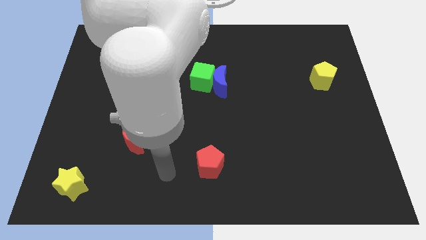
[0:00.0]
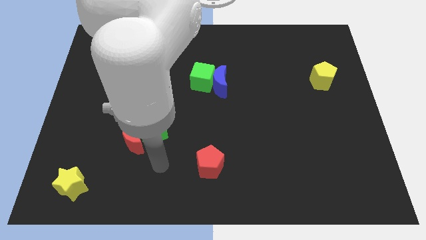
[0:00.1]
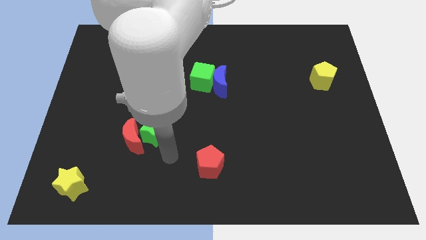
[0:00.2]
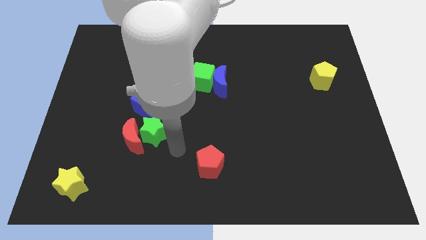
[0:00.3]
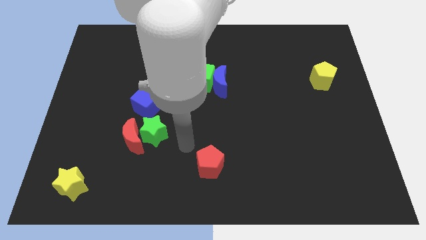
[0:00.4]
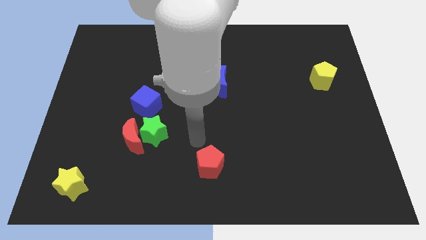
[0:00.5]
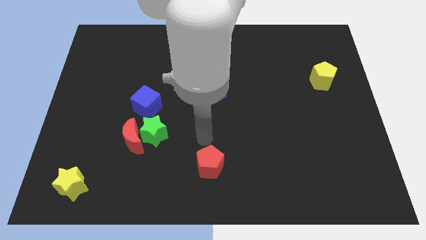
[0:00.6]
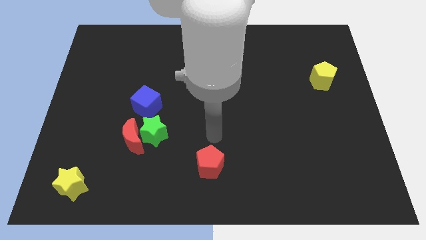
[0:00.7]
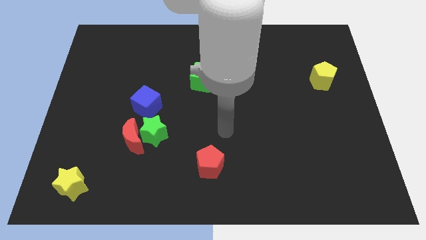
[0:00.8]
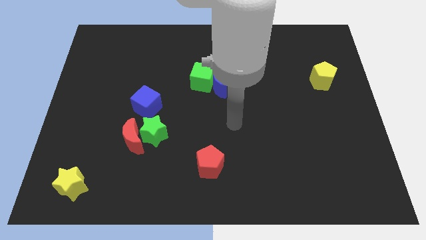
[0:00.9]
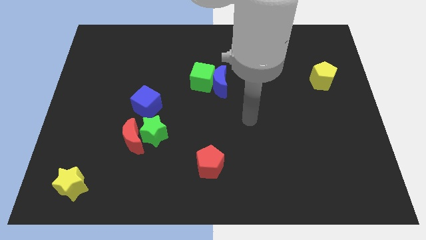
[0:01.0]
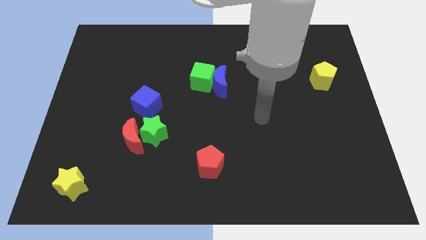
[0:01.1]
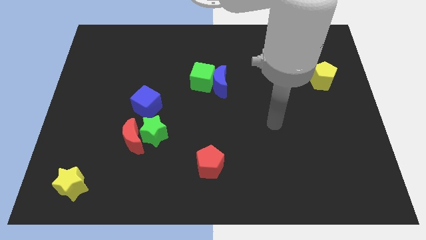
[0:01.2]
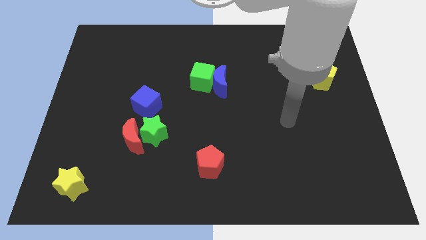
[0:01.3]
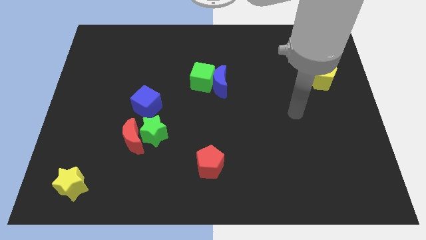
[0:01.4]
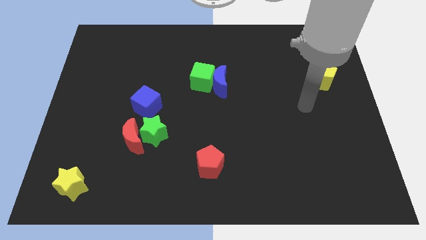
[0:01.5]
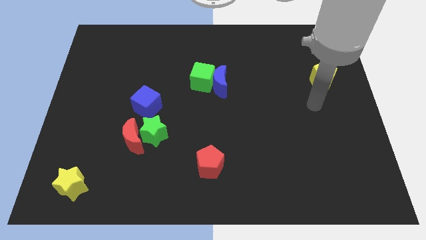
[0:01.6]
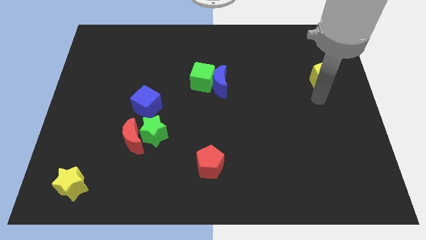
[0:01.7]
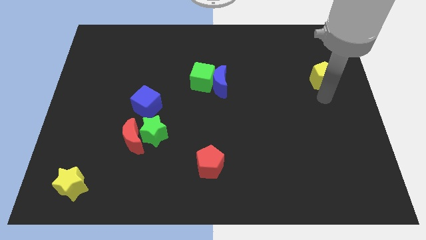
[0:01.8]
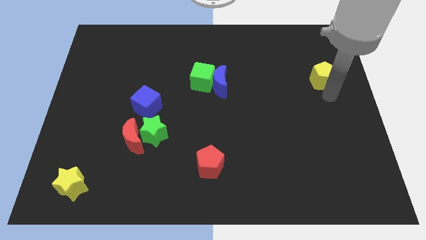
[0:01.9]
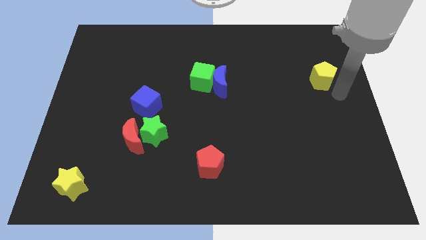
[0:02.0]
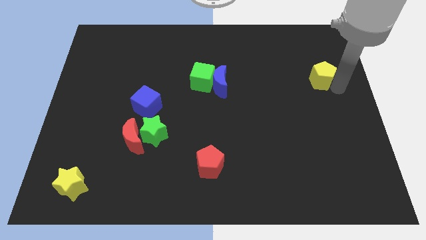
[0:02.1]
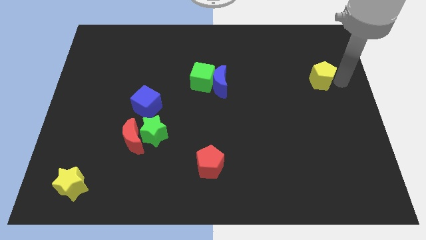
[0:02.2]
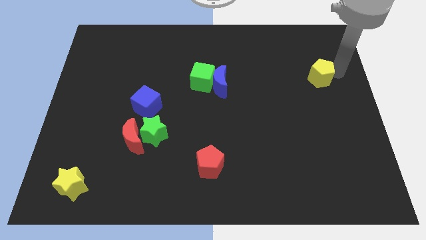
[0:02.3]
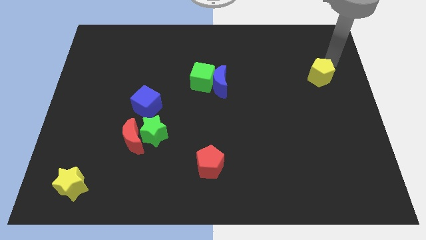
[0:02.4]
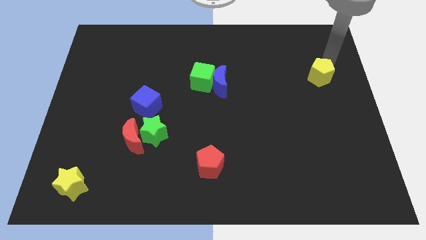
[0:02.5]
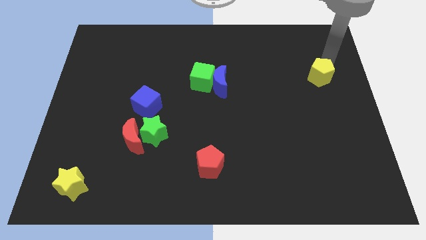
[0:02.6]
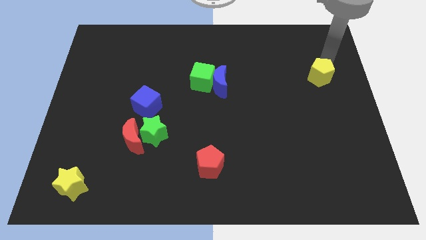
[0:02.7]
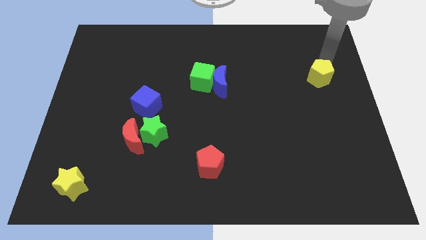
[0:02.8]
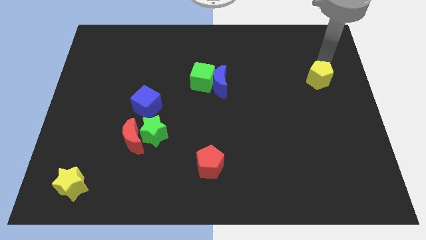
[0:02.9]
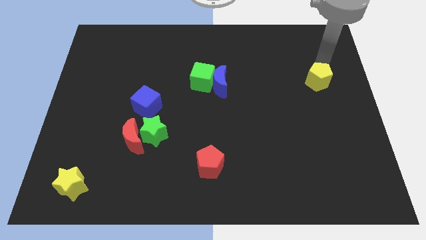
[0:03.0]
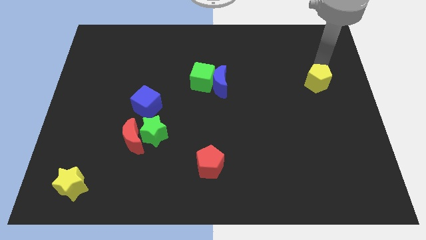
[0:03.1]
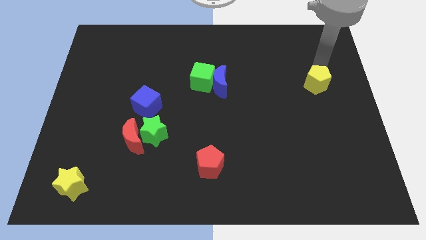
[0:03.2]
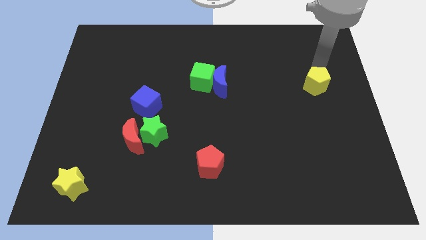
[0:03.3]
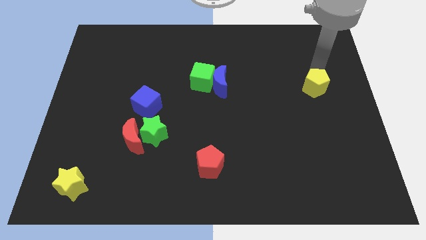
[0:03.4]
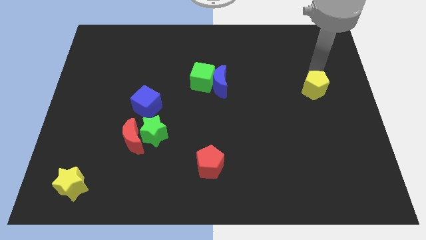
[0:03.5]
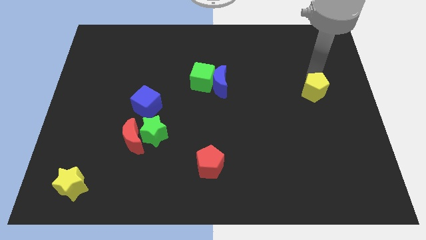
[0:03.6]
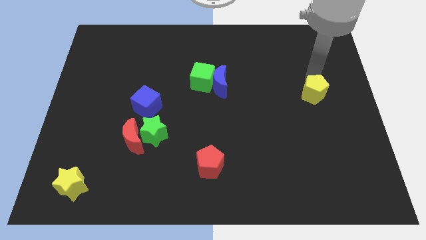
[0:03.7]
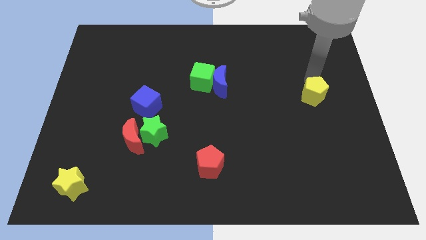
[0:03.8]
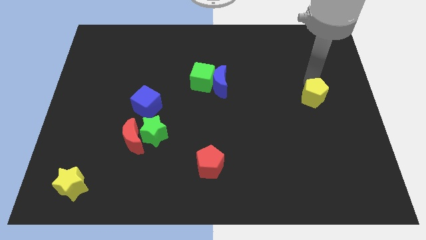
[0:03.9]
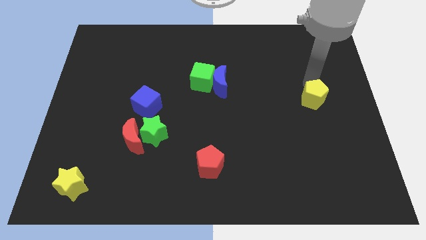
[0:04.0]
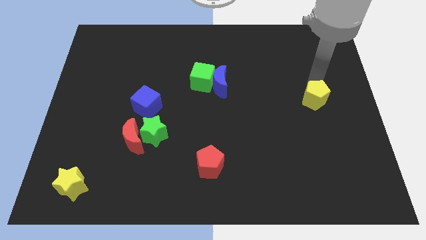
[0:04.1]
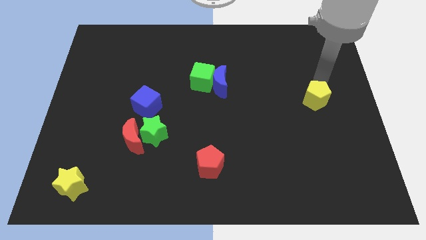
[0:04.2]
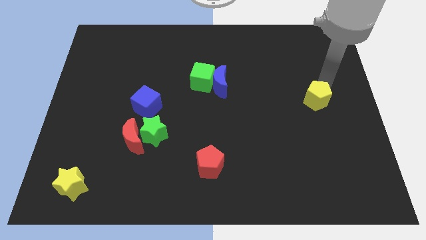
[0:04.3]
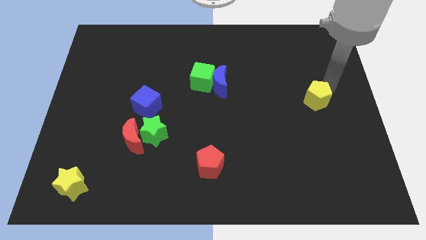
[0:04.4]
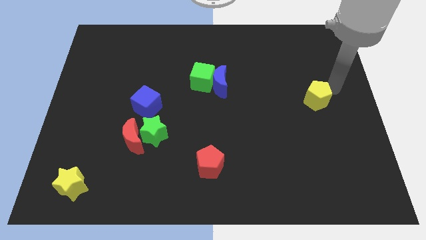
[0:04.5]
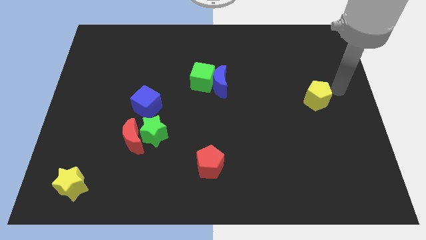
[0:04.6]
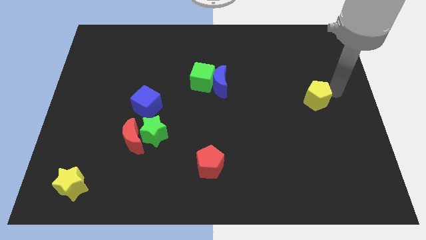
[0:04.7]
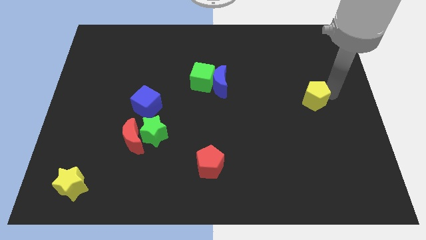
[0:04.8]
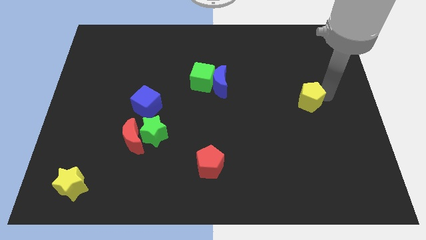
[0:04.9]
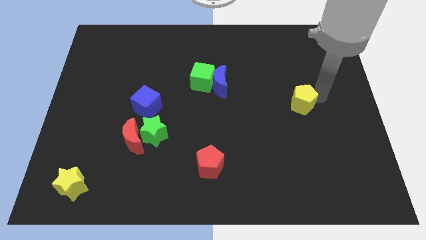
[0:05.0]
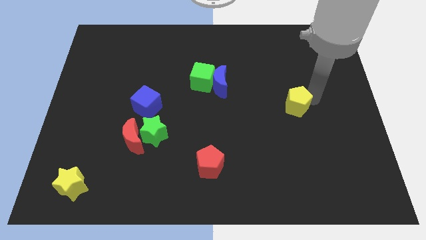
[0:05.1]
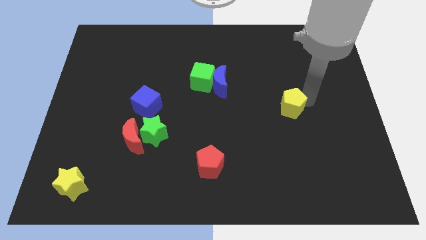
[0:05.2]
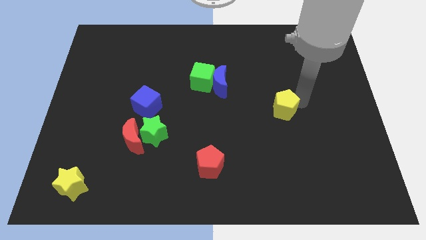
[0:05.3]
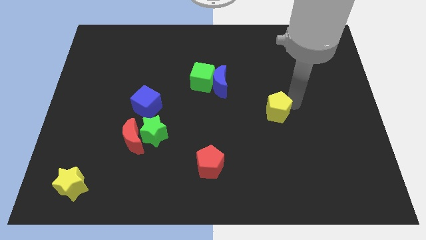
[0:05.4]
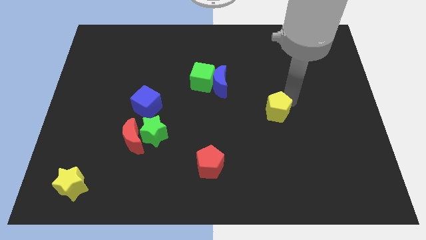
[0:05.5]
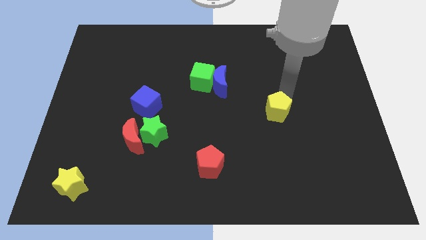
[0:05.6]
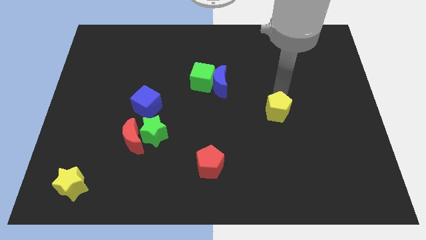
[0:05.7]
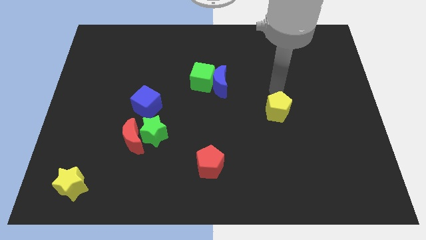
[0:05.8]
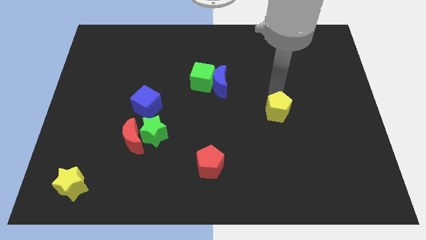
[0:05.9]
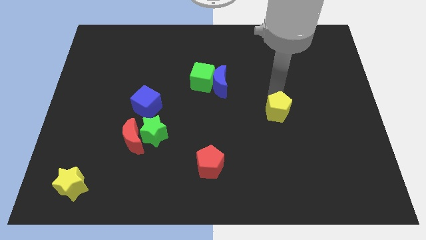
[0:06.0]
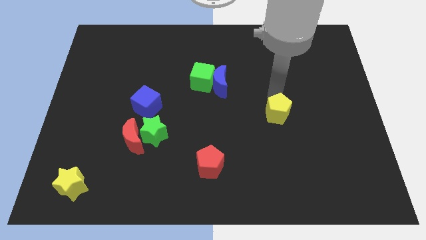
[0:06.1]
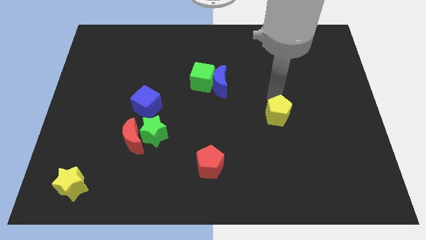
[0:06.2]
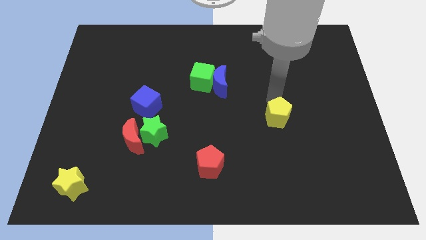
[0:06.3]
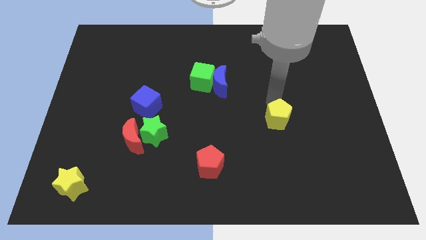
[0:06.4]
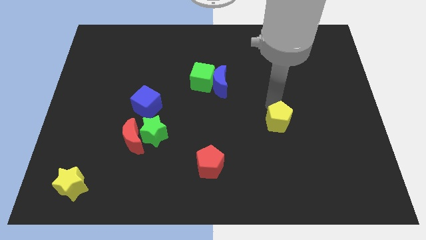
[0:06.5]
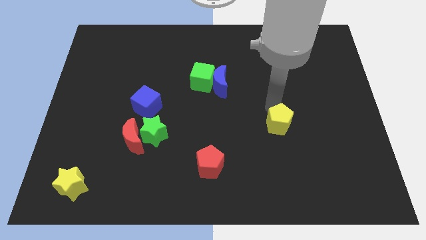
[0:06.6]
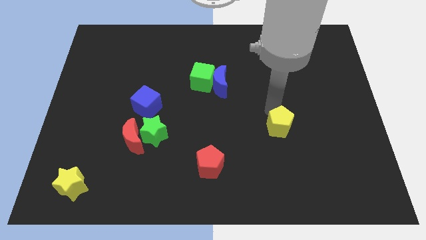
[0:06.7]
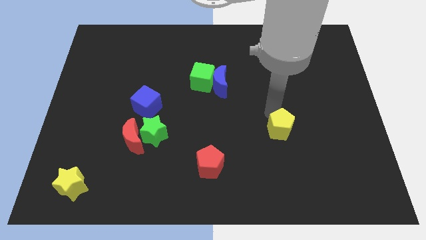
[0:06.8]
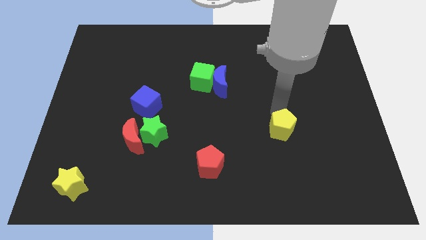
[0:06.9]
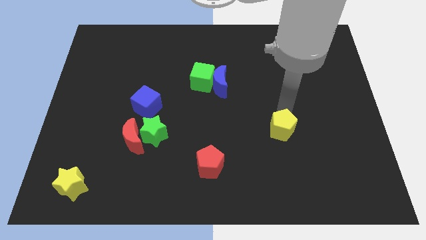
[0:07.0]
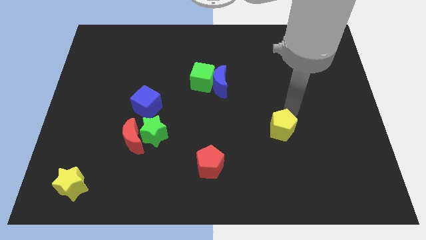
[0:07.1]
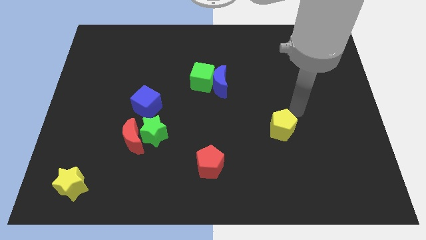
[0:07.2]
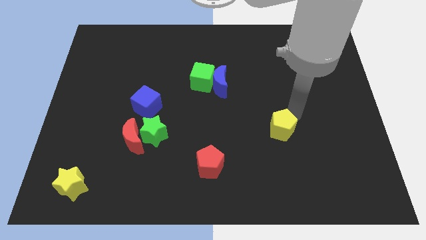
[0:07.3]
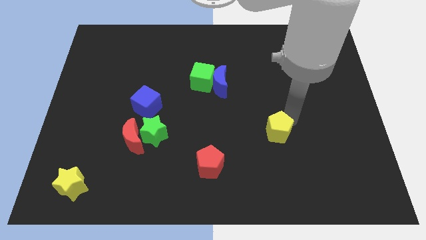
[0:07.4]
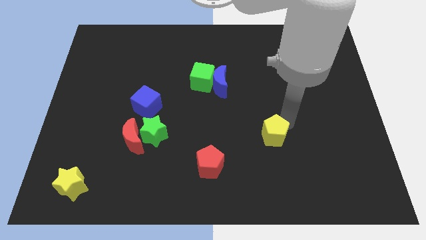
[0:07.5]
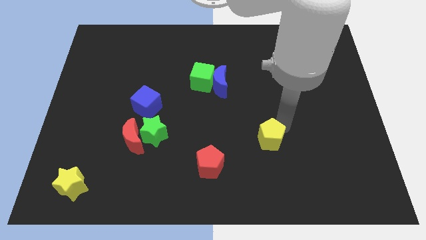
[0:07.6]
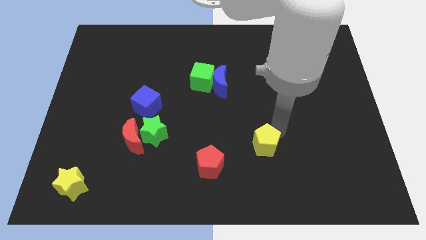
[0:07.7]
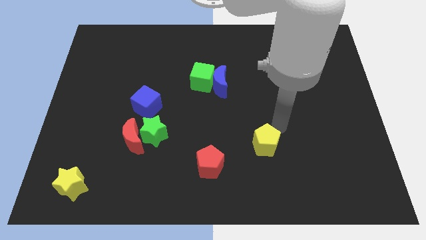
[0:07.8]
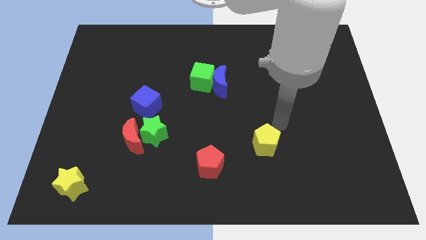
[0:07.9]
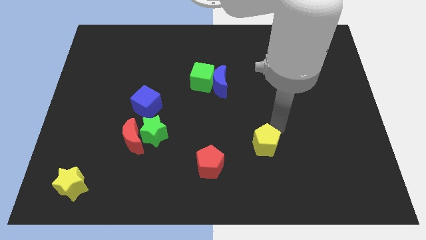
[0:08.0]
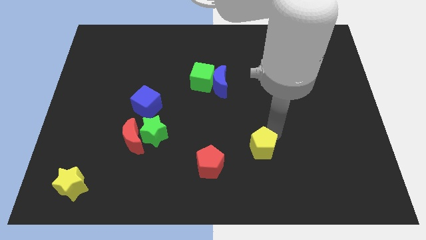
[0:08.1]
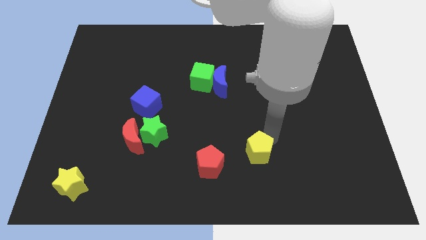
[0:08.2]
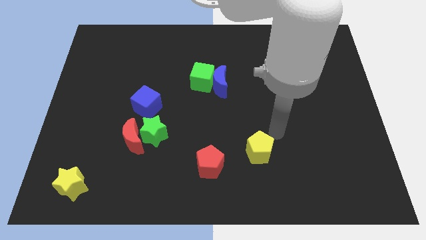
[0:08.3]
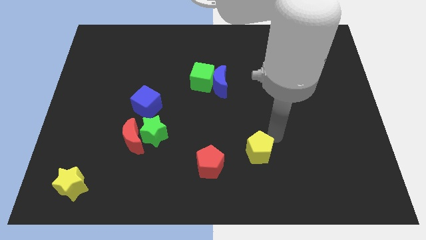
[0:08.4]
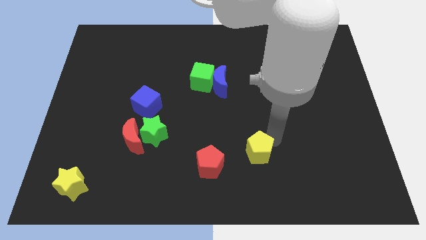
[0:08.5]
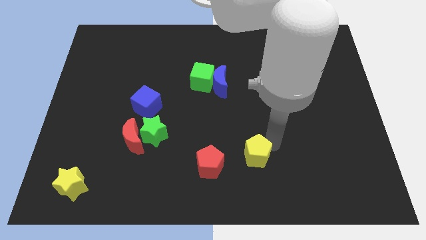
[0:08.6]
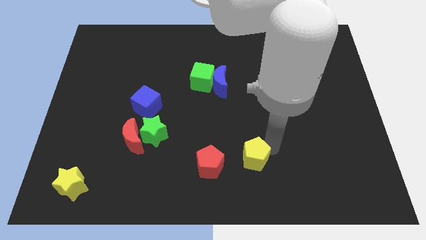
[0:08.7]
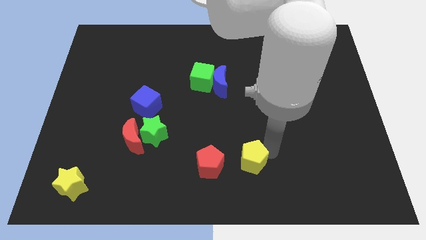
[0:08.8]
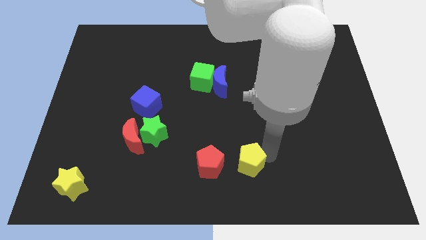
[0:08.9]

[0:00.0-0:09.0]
move the yellow pentagon to the bottom side
